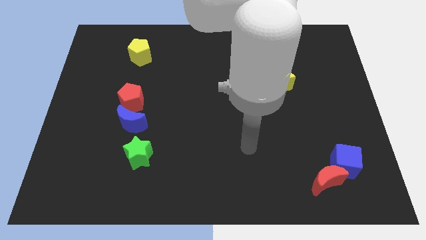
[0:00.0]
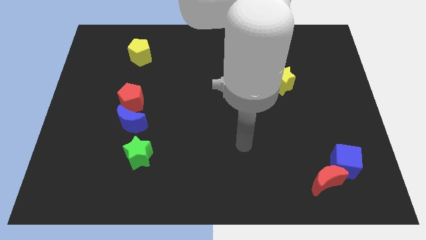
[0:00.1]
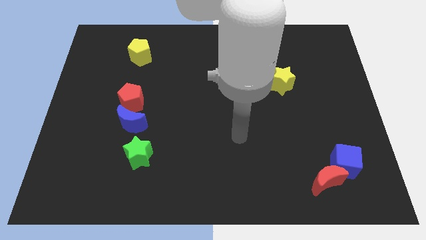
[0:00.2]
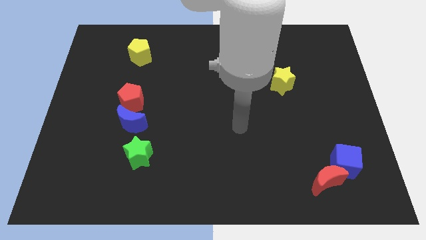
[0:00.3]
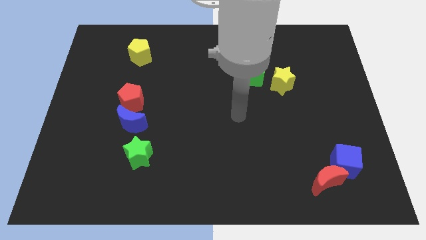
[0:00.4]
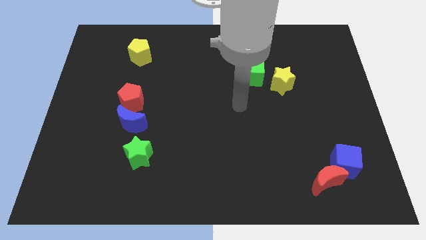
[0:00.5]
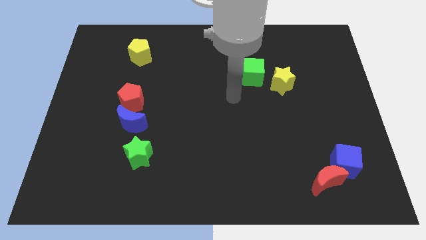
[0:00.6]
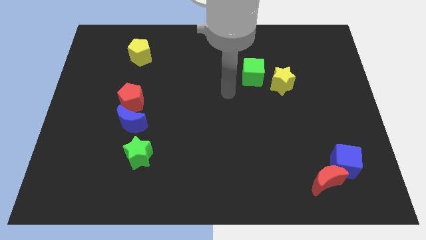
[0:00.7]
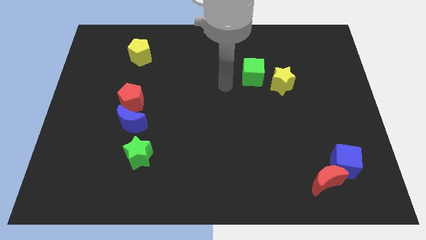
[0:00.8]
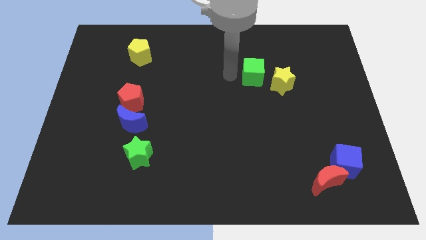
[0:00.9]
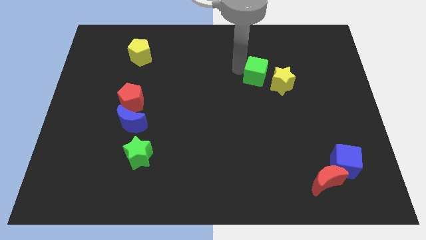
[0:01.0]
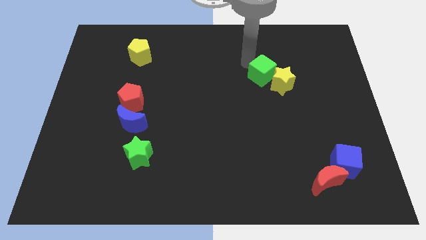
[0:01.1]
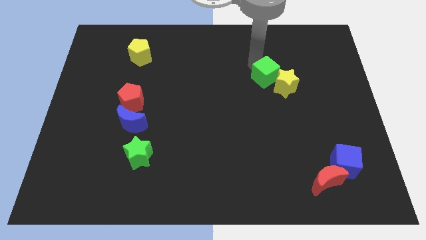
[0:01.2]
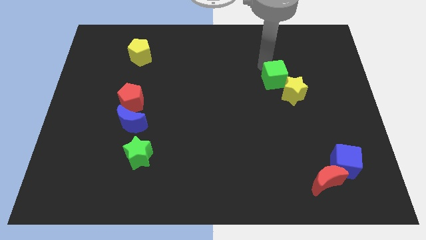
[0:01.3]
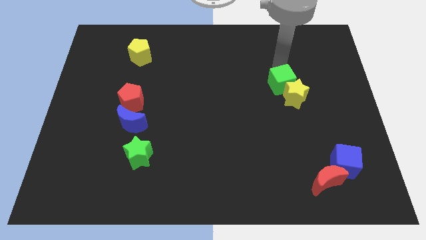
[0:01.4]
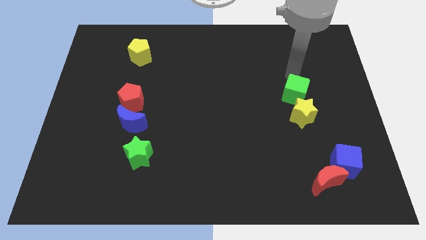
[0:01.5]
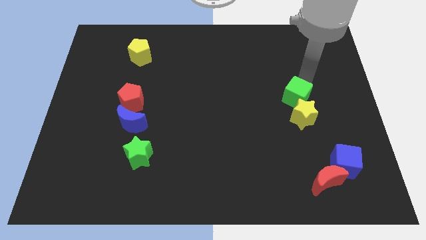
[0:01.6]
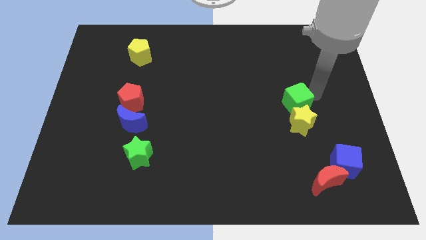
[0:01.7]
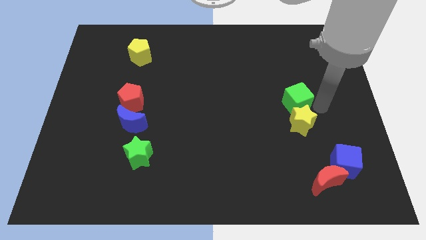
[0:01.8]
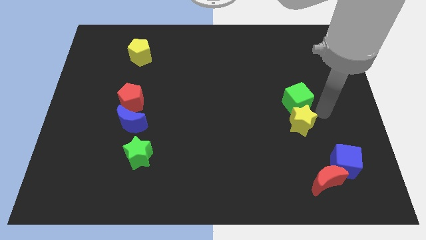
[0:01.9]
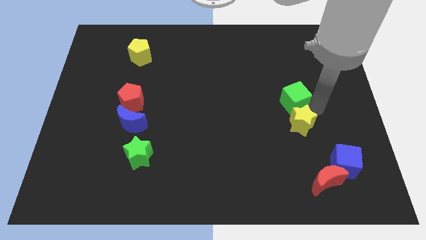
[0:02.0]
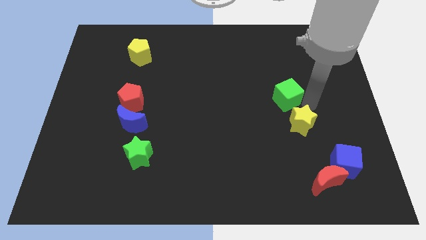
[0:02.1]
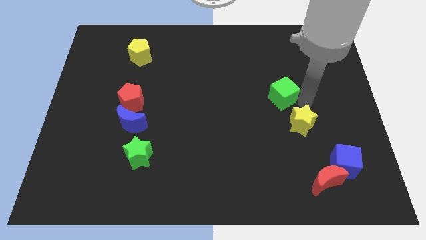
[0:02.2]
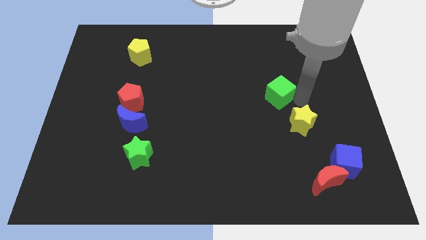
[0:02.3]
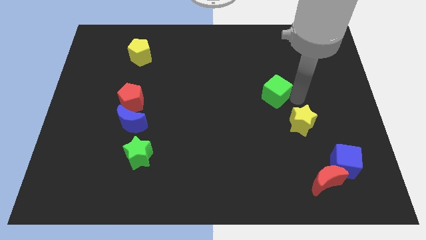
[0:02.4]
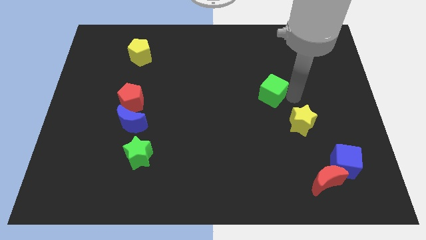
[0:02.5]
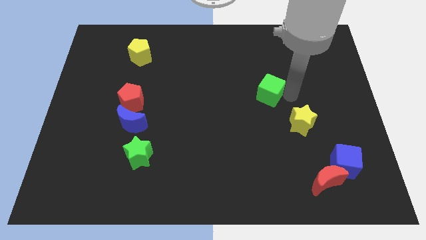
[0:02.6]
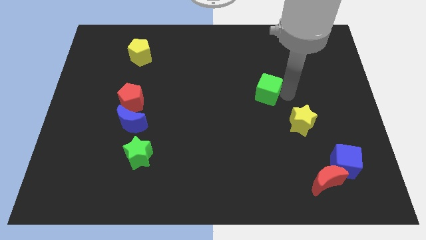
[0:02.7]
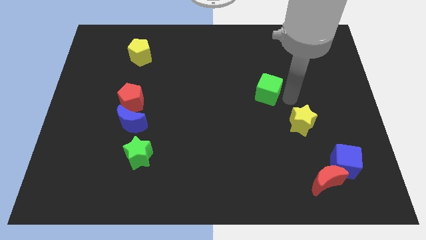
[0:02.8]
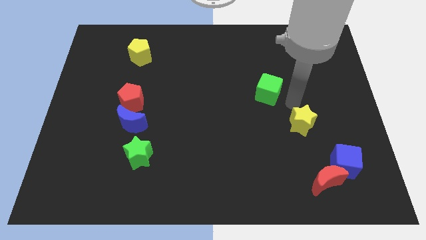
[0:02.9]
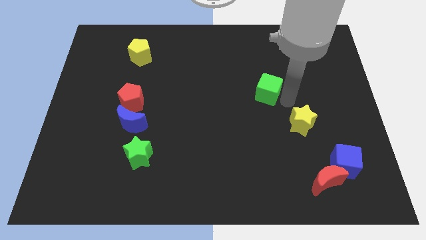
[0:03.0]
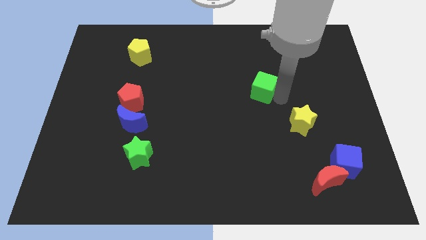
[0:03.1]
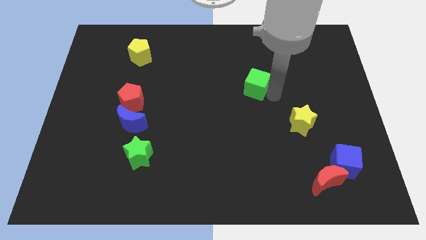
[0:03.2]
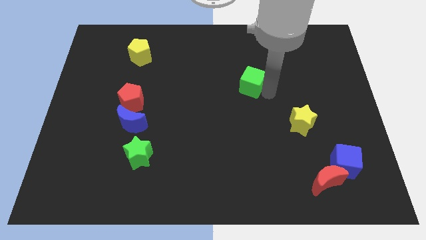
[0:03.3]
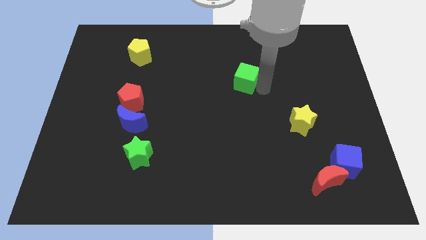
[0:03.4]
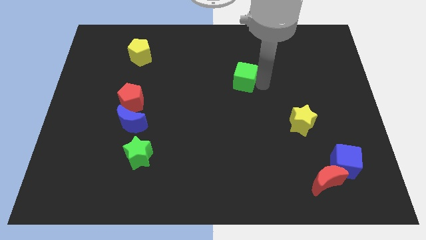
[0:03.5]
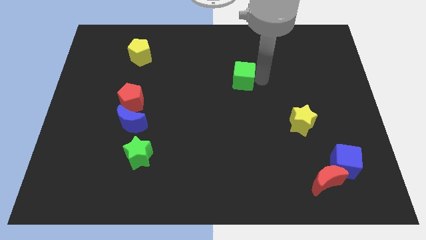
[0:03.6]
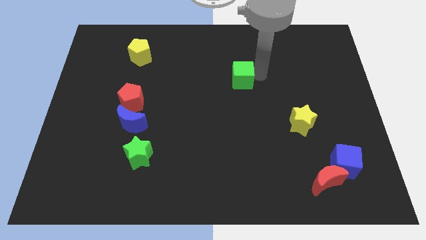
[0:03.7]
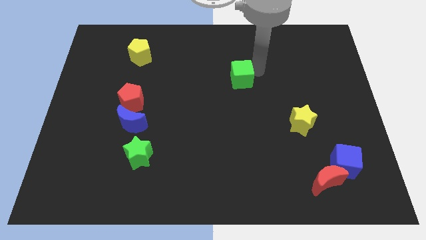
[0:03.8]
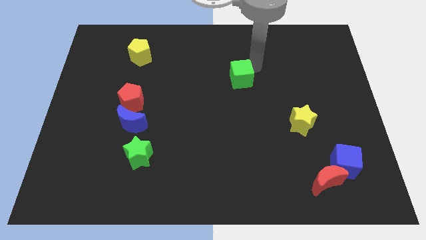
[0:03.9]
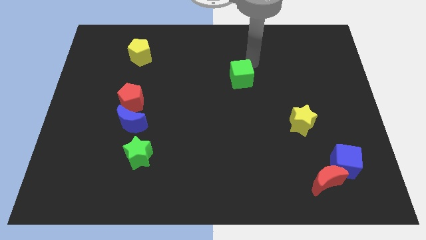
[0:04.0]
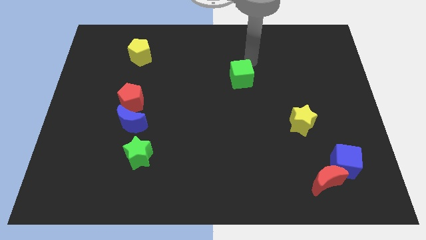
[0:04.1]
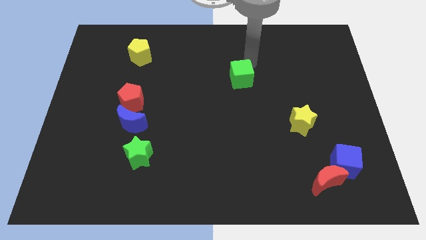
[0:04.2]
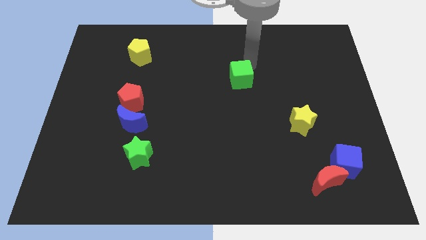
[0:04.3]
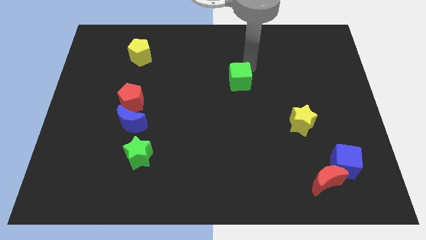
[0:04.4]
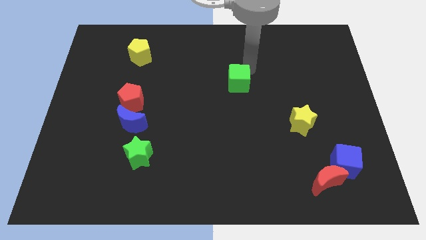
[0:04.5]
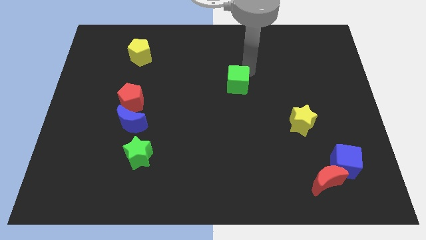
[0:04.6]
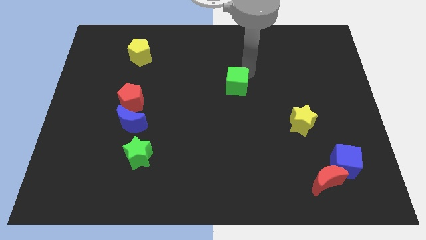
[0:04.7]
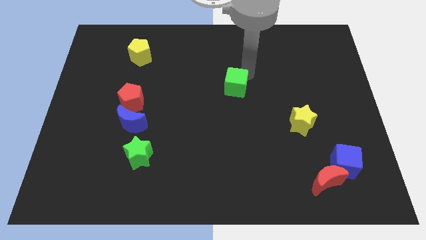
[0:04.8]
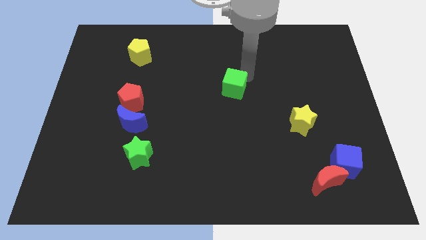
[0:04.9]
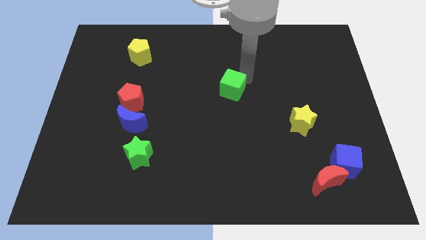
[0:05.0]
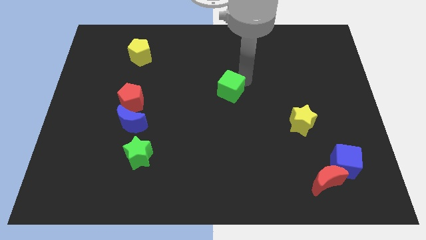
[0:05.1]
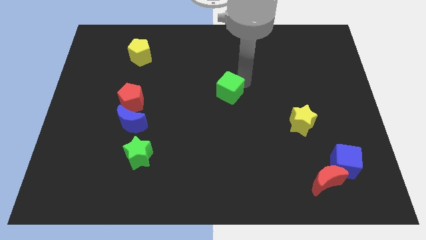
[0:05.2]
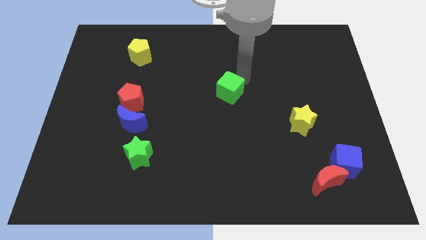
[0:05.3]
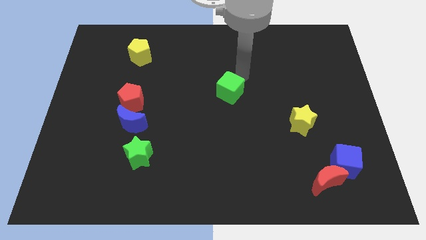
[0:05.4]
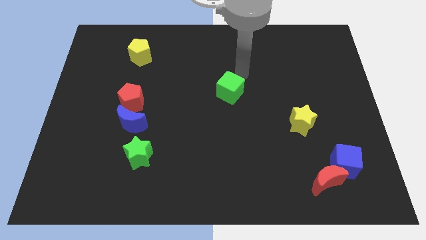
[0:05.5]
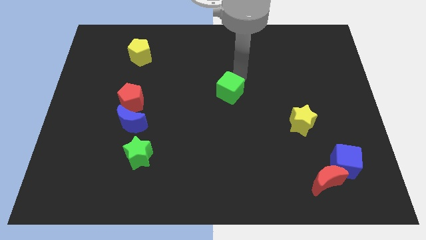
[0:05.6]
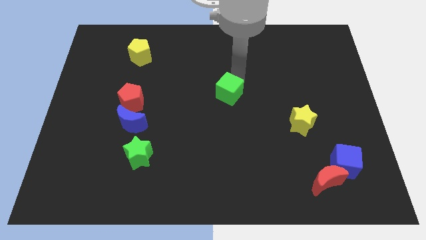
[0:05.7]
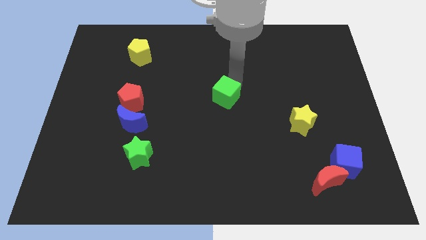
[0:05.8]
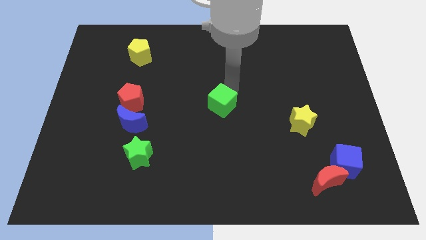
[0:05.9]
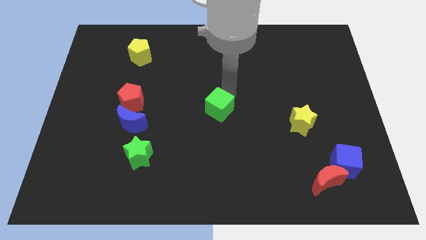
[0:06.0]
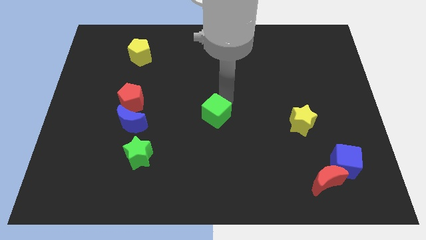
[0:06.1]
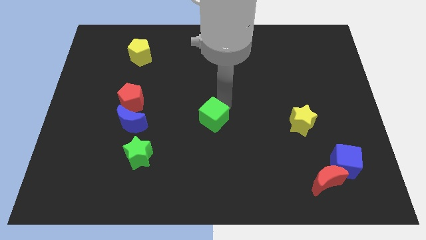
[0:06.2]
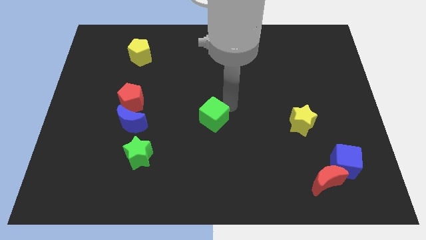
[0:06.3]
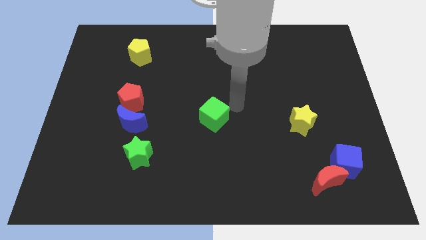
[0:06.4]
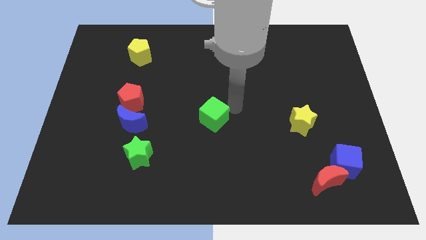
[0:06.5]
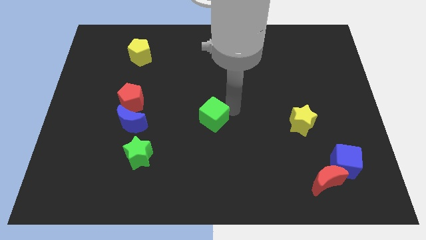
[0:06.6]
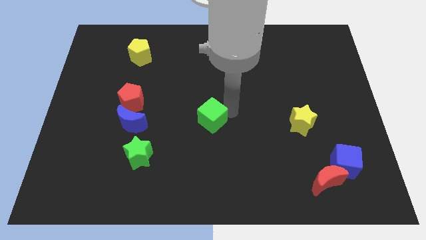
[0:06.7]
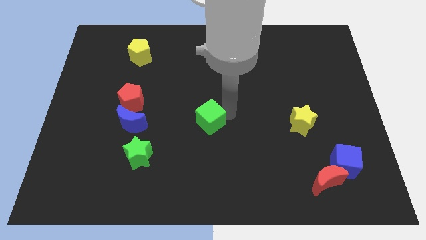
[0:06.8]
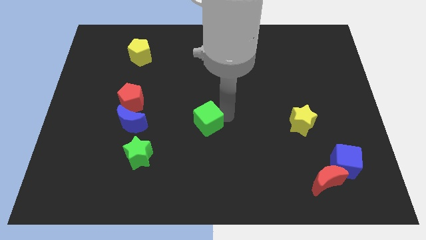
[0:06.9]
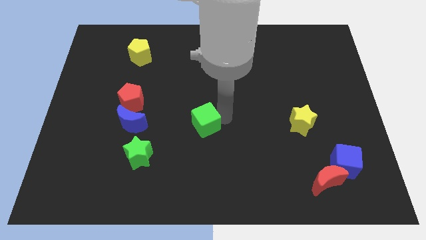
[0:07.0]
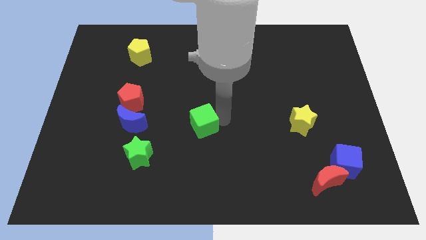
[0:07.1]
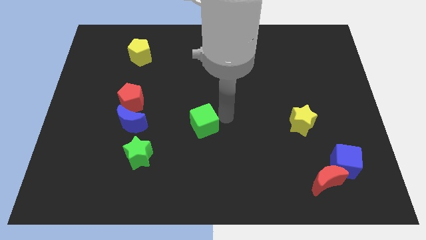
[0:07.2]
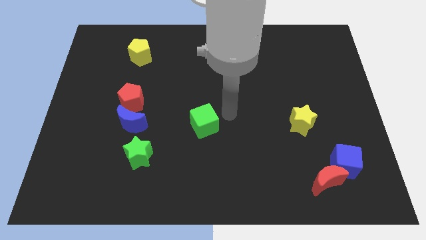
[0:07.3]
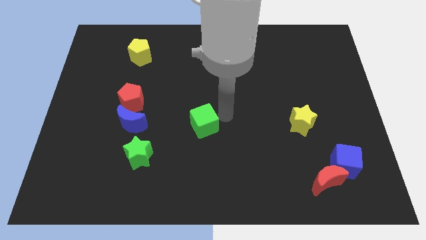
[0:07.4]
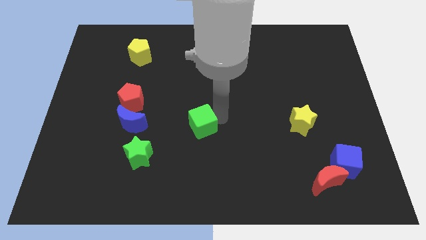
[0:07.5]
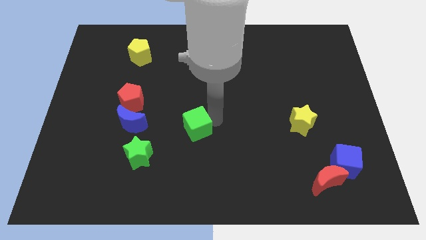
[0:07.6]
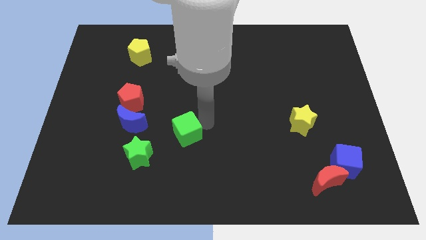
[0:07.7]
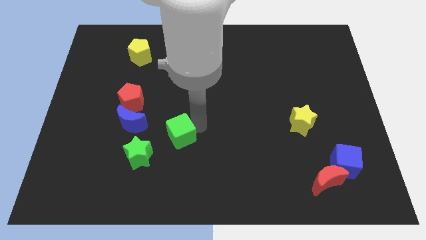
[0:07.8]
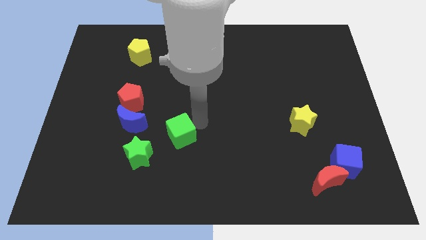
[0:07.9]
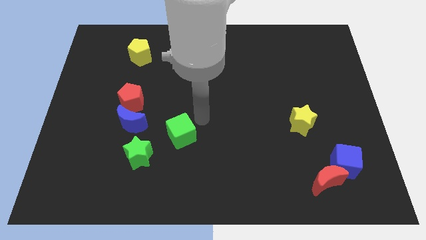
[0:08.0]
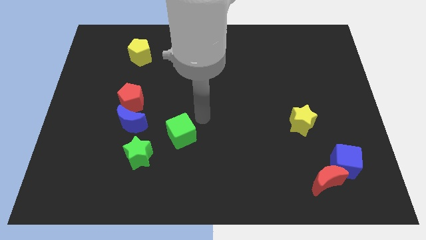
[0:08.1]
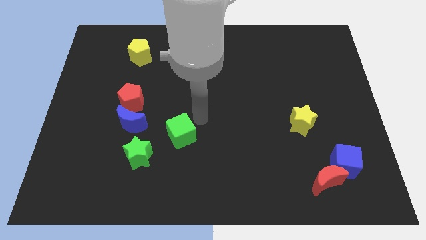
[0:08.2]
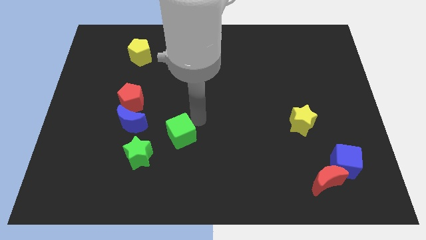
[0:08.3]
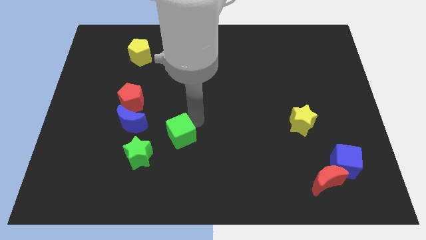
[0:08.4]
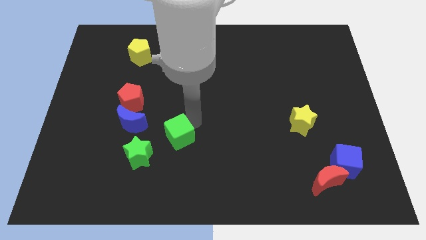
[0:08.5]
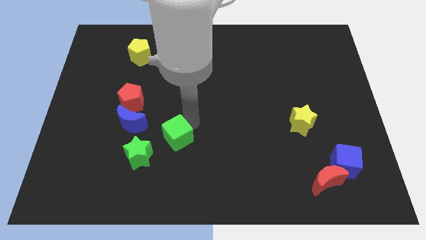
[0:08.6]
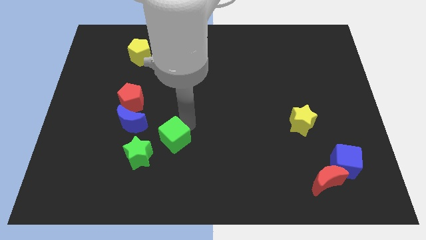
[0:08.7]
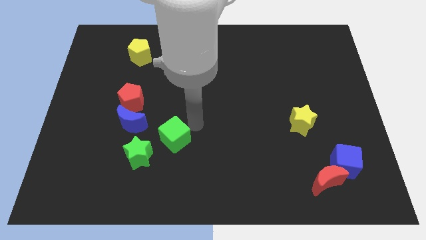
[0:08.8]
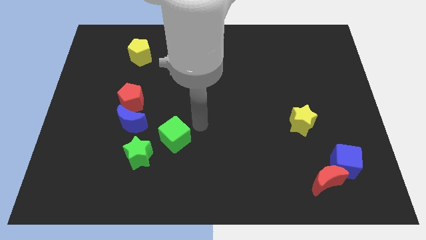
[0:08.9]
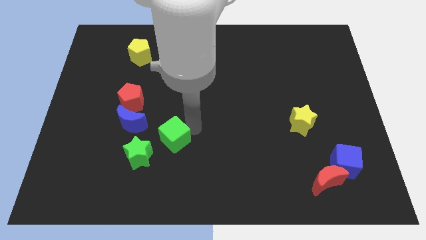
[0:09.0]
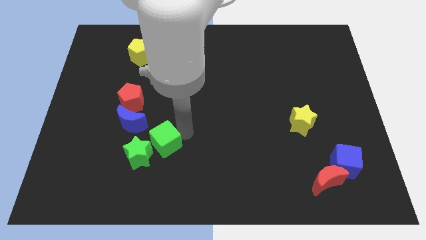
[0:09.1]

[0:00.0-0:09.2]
put the green cube towards the green star
